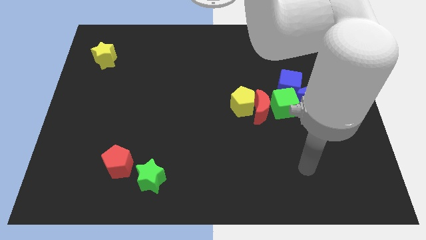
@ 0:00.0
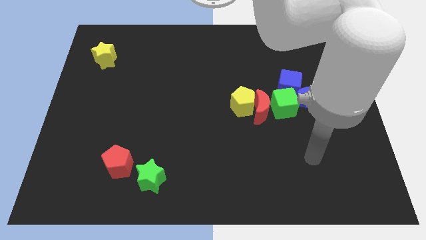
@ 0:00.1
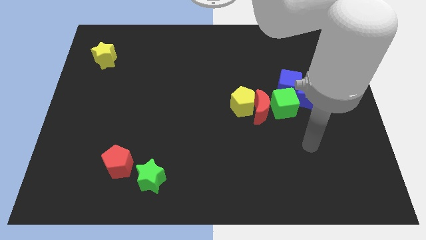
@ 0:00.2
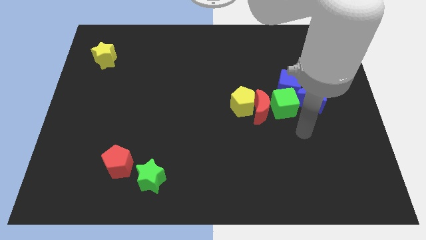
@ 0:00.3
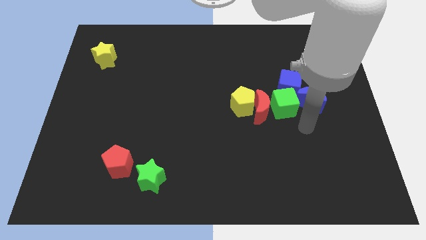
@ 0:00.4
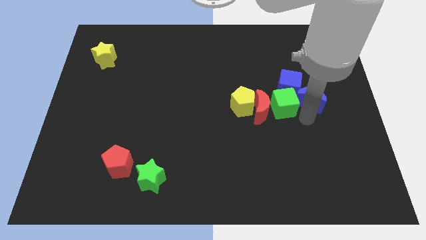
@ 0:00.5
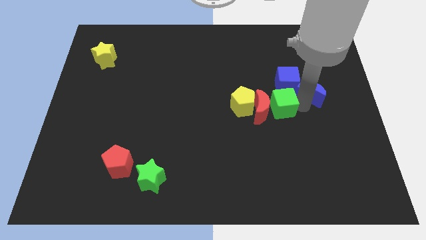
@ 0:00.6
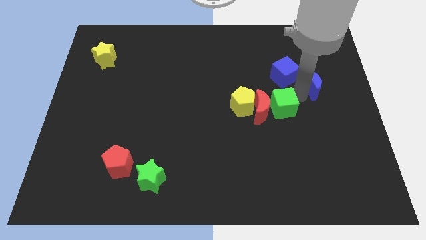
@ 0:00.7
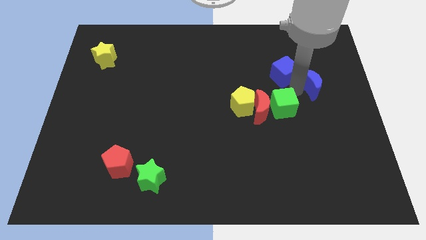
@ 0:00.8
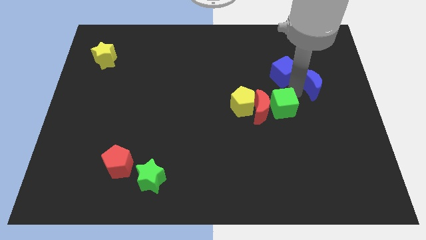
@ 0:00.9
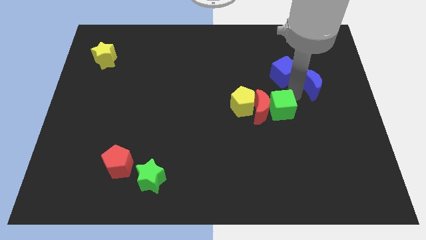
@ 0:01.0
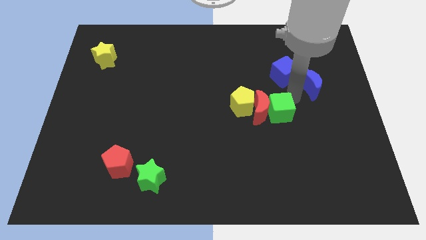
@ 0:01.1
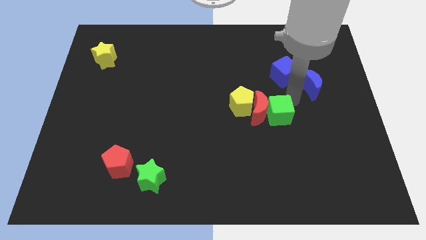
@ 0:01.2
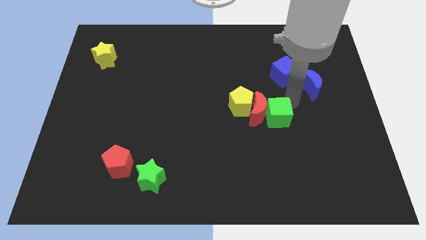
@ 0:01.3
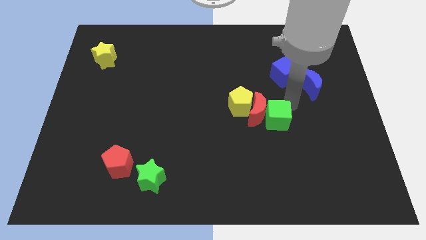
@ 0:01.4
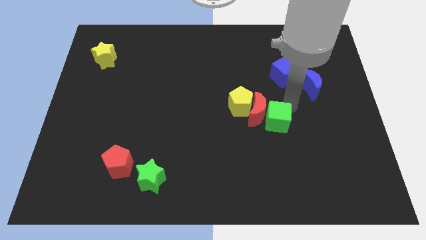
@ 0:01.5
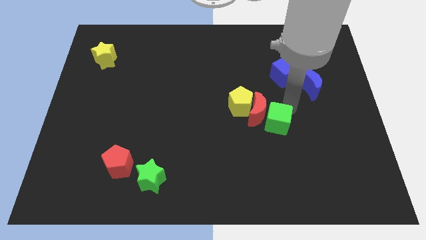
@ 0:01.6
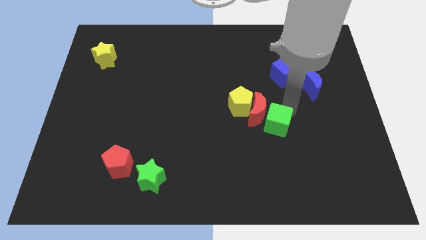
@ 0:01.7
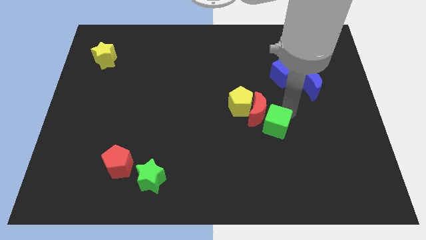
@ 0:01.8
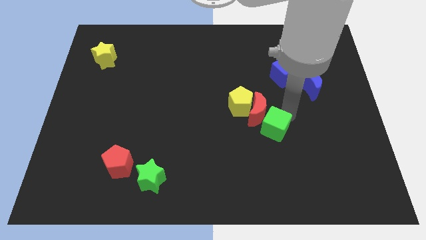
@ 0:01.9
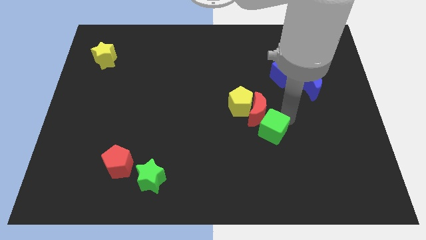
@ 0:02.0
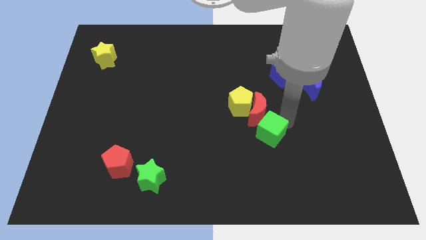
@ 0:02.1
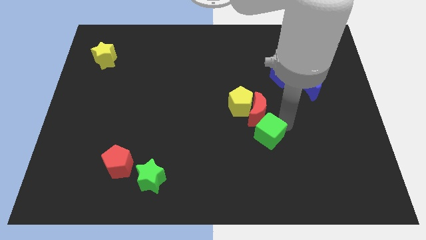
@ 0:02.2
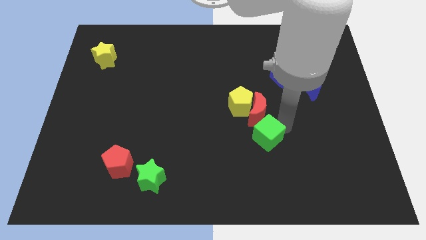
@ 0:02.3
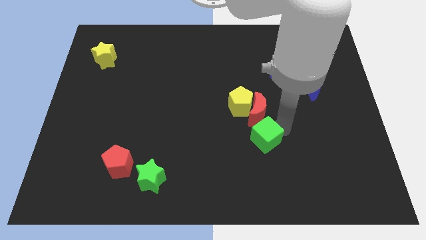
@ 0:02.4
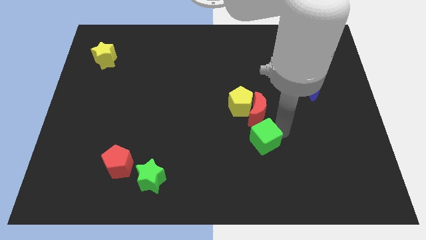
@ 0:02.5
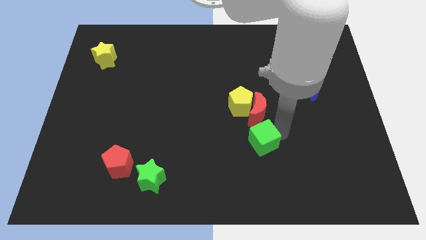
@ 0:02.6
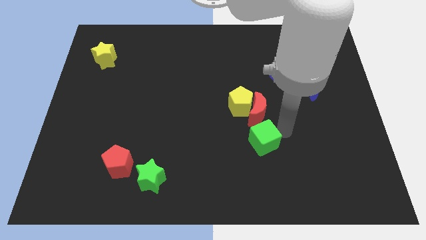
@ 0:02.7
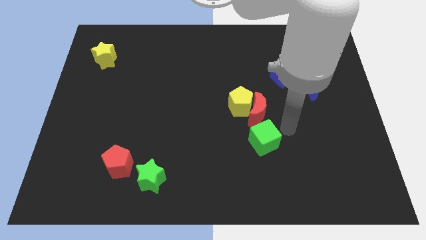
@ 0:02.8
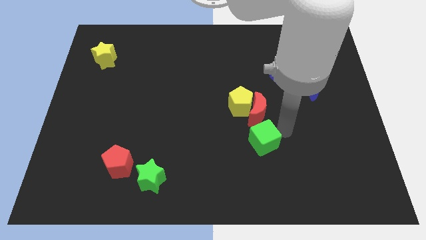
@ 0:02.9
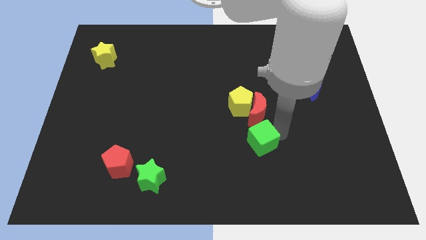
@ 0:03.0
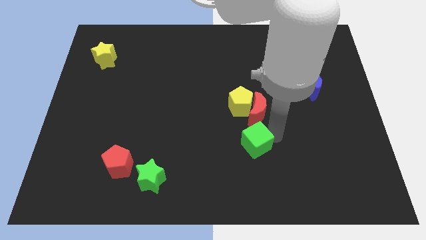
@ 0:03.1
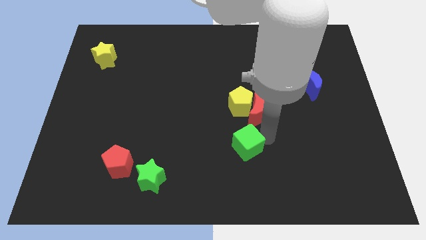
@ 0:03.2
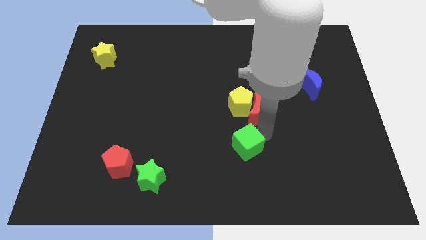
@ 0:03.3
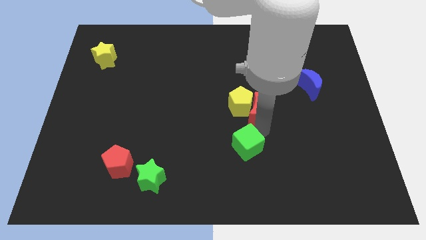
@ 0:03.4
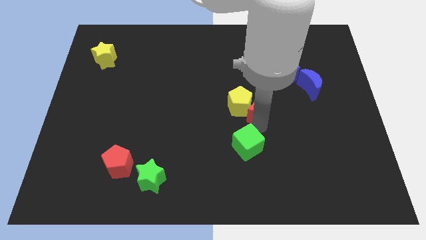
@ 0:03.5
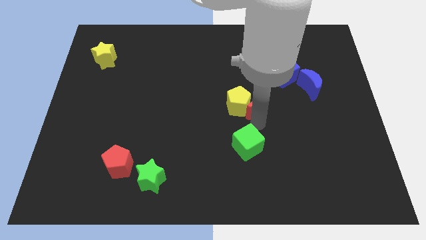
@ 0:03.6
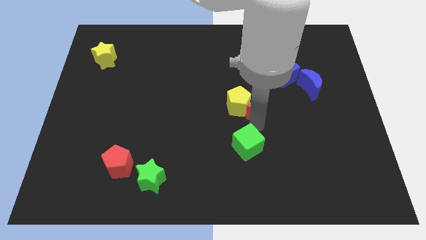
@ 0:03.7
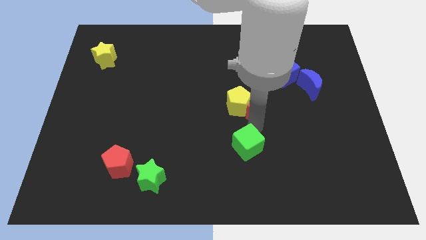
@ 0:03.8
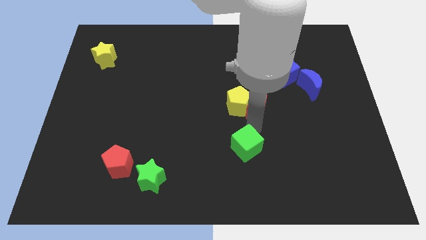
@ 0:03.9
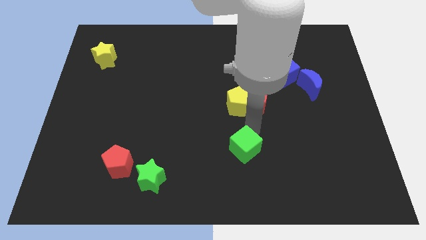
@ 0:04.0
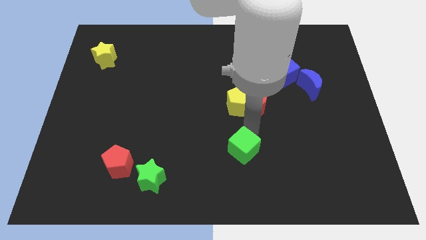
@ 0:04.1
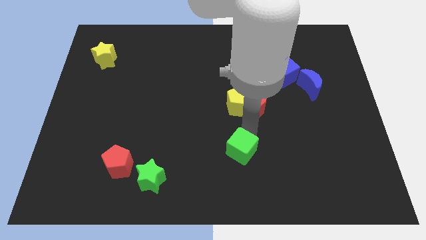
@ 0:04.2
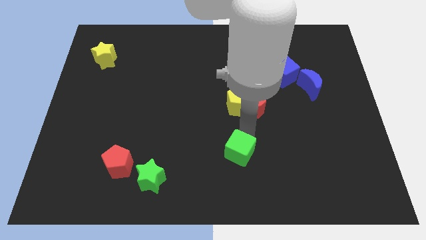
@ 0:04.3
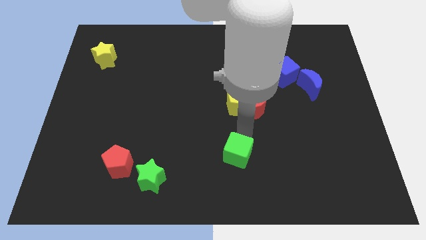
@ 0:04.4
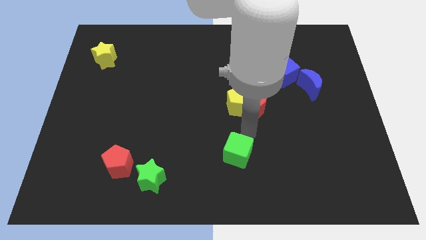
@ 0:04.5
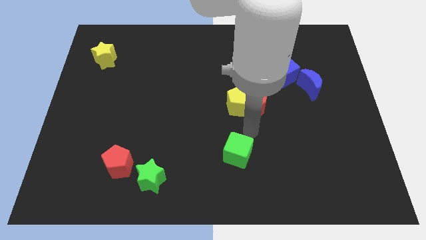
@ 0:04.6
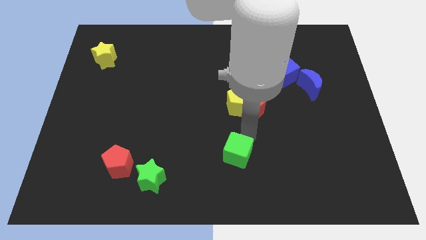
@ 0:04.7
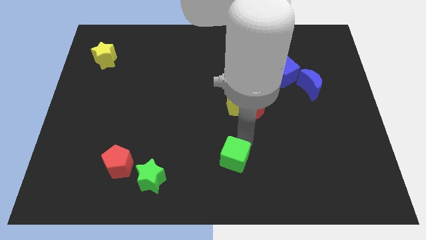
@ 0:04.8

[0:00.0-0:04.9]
move the green cube to the bottom side

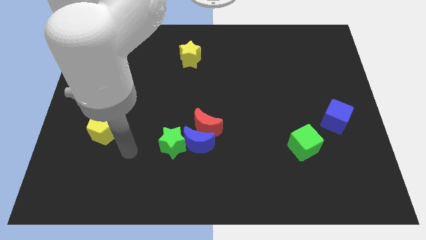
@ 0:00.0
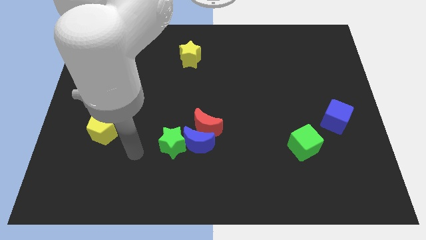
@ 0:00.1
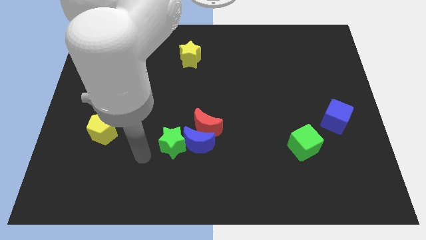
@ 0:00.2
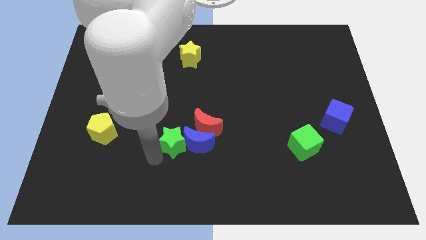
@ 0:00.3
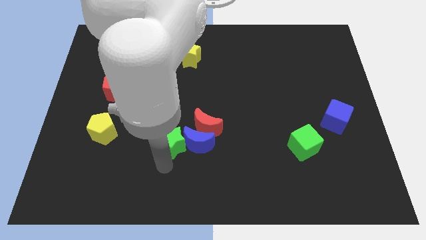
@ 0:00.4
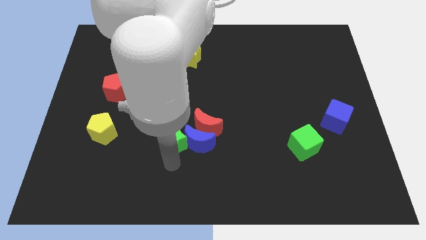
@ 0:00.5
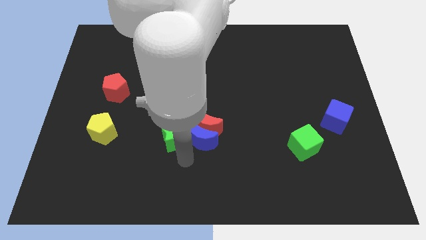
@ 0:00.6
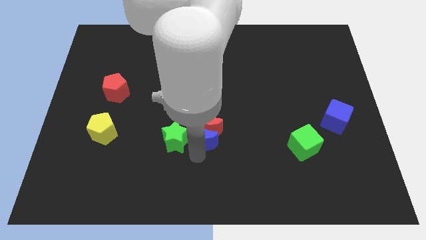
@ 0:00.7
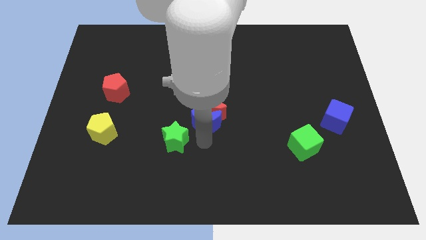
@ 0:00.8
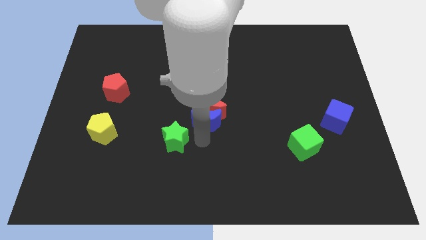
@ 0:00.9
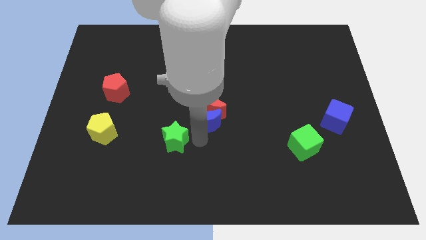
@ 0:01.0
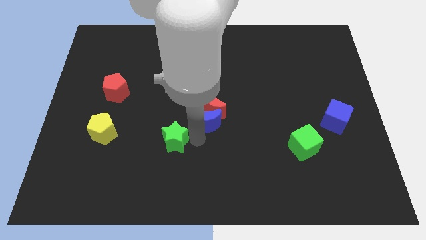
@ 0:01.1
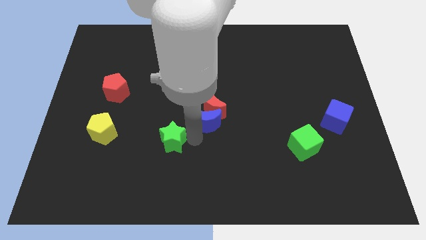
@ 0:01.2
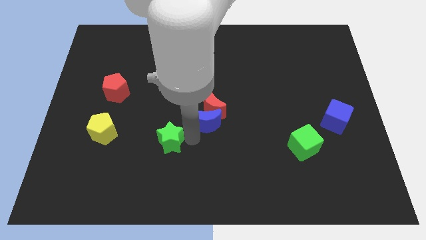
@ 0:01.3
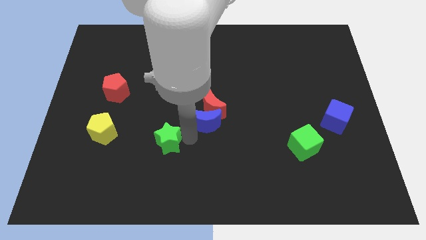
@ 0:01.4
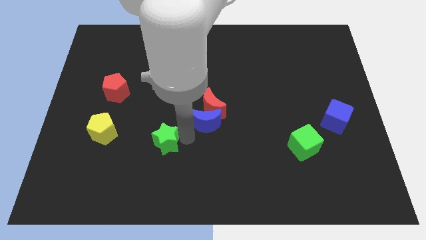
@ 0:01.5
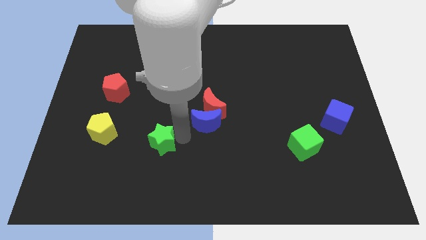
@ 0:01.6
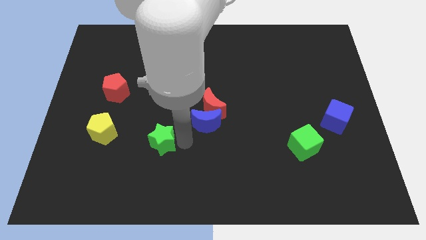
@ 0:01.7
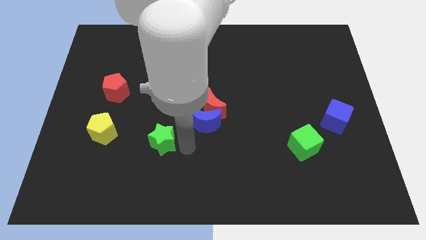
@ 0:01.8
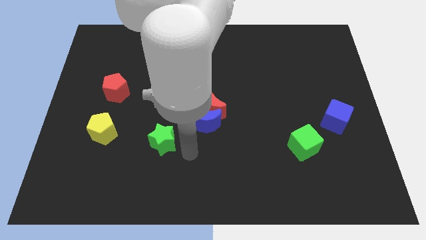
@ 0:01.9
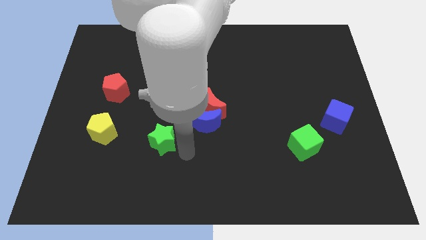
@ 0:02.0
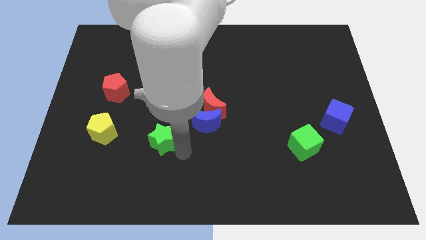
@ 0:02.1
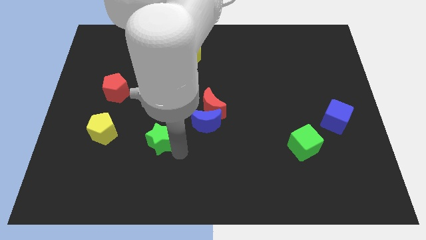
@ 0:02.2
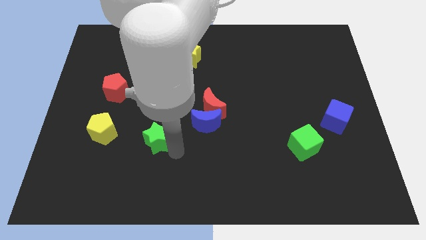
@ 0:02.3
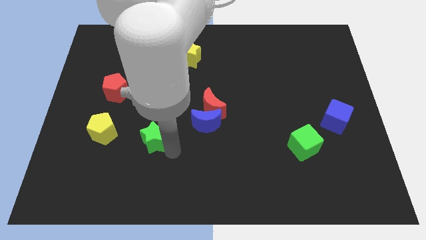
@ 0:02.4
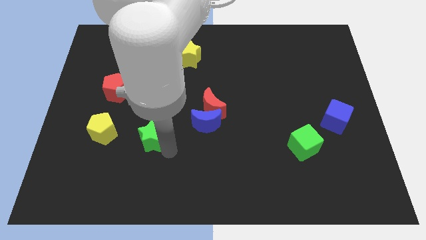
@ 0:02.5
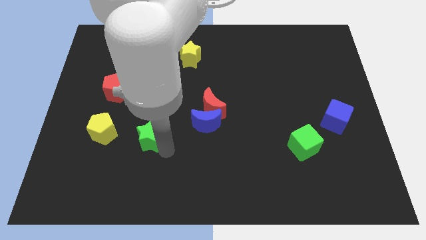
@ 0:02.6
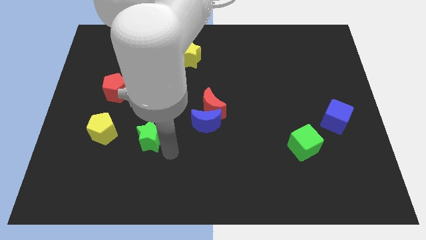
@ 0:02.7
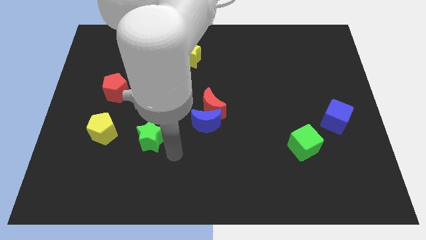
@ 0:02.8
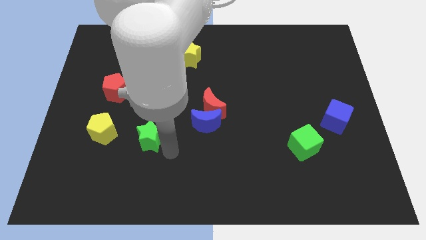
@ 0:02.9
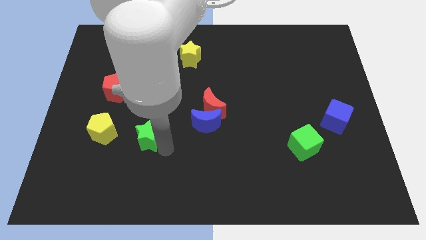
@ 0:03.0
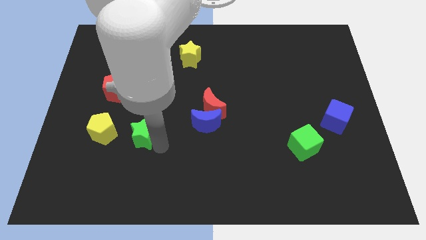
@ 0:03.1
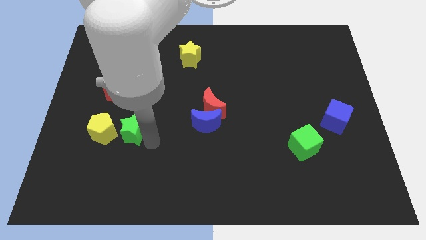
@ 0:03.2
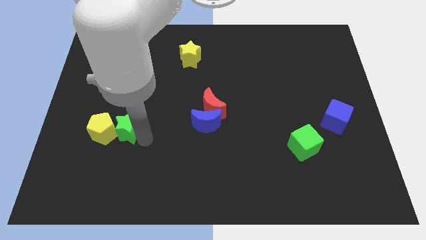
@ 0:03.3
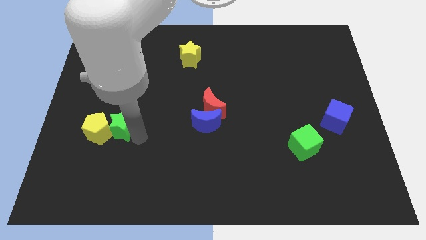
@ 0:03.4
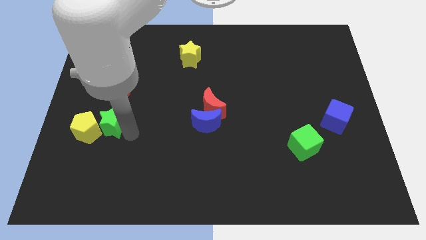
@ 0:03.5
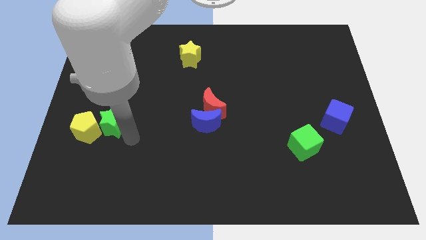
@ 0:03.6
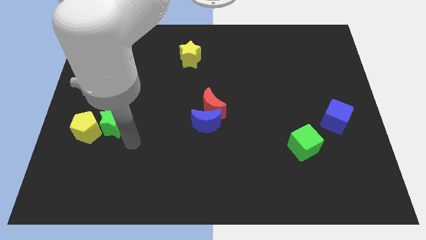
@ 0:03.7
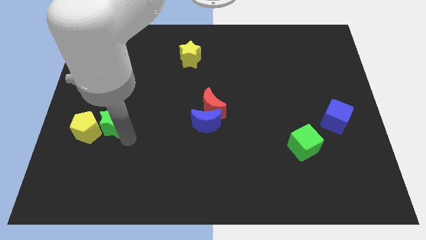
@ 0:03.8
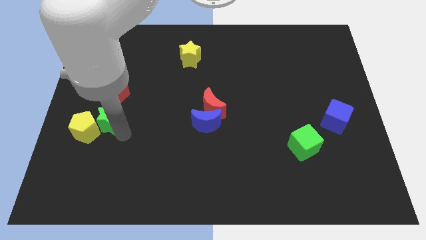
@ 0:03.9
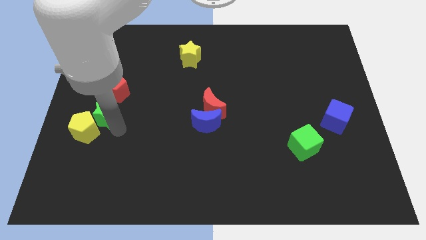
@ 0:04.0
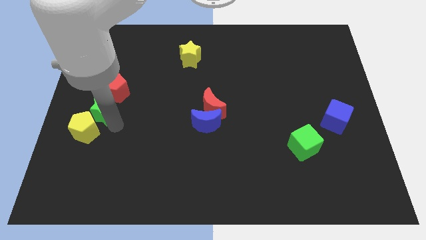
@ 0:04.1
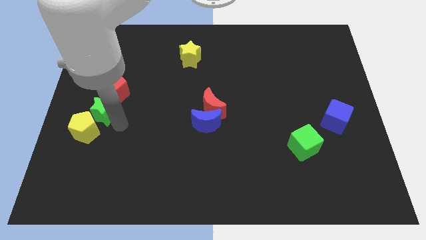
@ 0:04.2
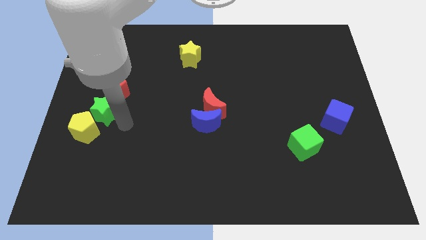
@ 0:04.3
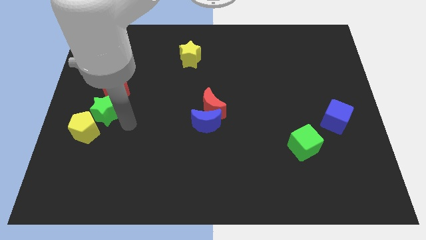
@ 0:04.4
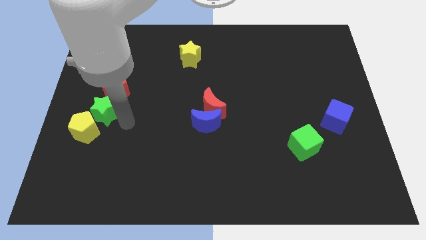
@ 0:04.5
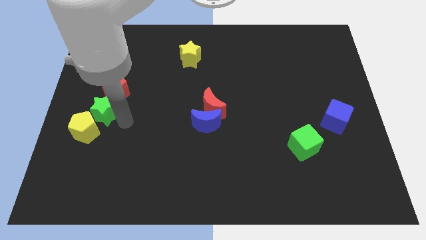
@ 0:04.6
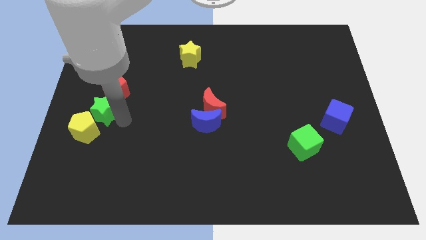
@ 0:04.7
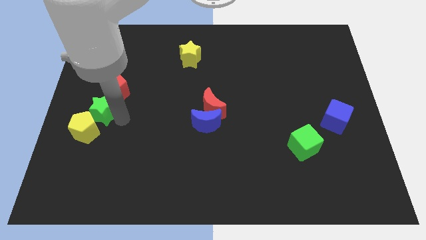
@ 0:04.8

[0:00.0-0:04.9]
push the green star to the left side of the board
